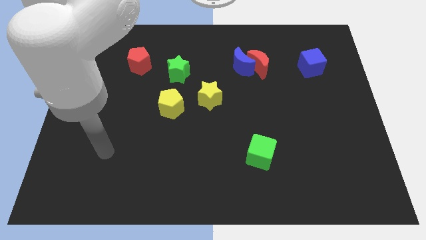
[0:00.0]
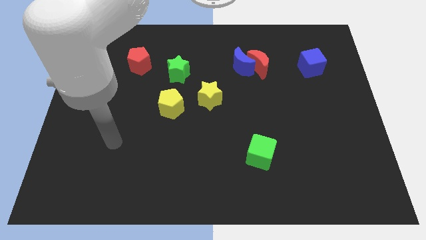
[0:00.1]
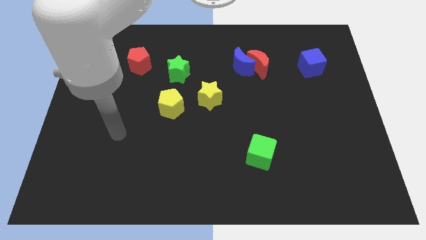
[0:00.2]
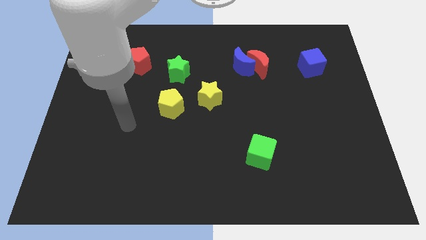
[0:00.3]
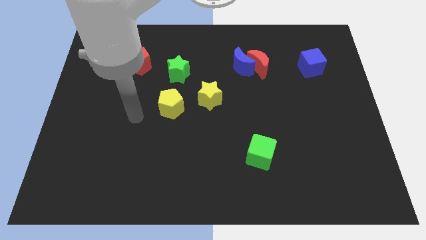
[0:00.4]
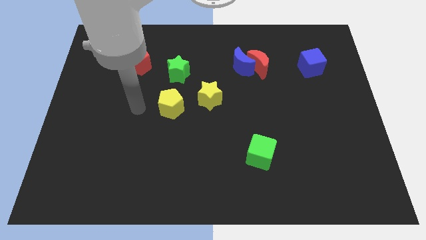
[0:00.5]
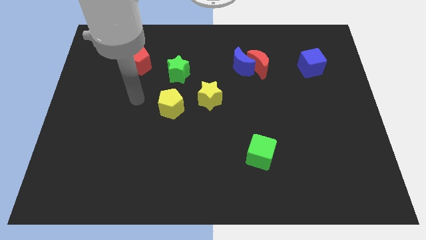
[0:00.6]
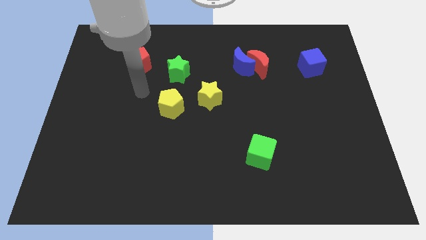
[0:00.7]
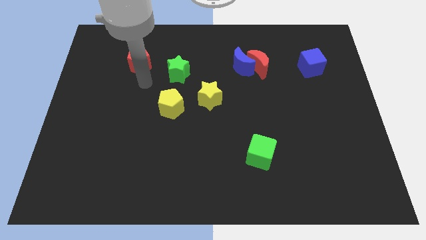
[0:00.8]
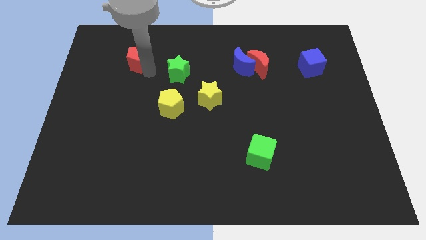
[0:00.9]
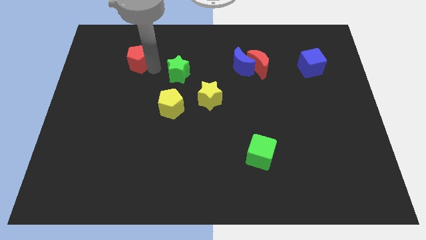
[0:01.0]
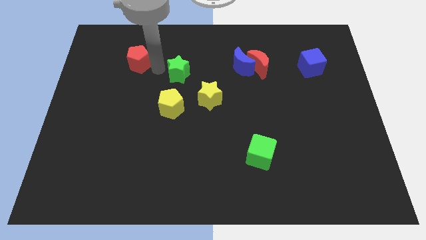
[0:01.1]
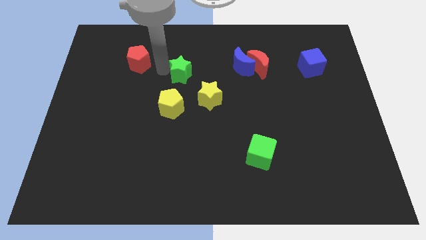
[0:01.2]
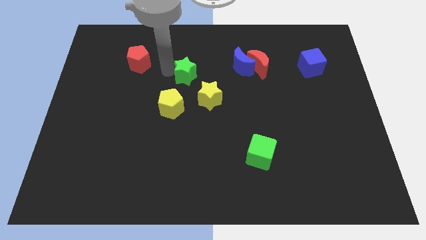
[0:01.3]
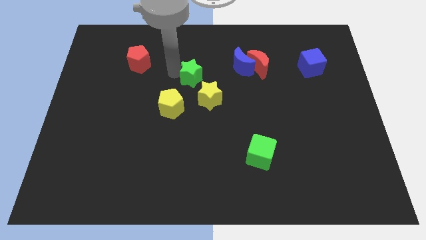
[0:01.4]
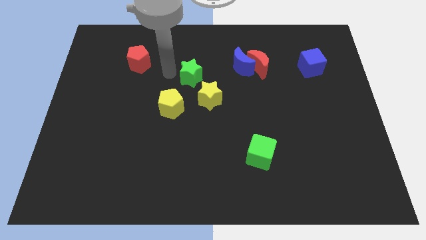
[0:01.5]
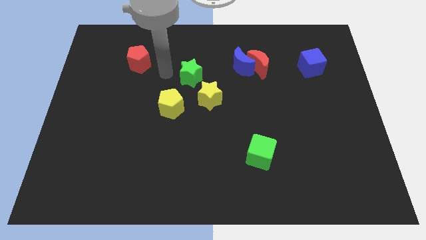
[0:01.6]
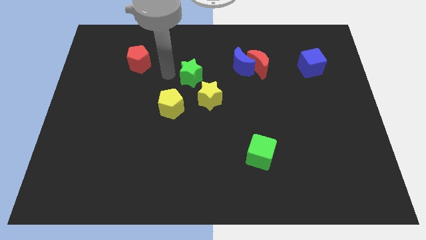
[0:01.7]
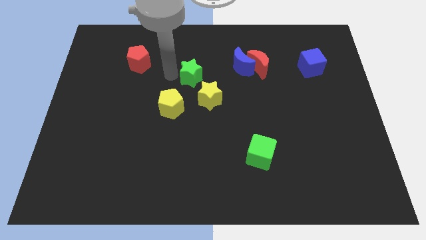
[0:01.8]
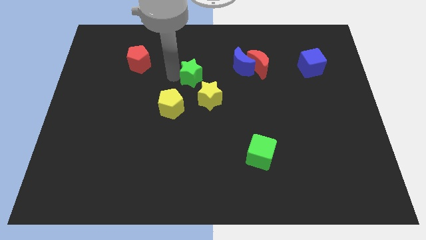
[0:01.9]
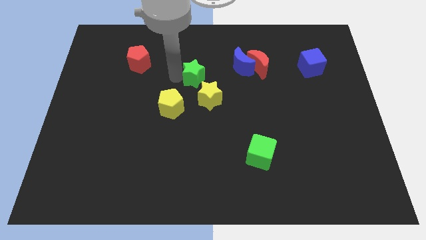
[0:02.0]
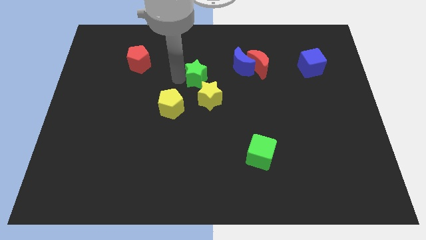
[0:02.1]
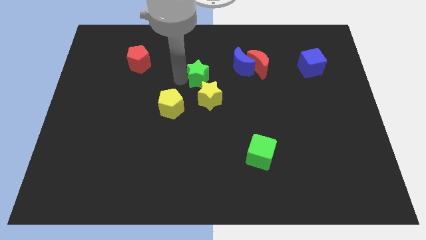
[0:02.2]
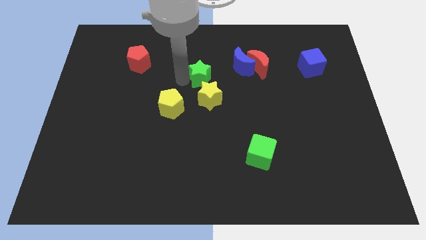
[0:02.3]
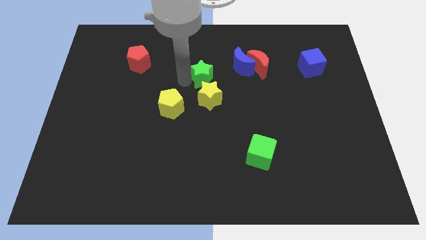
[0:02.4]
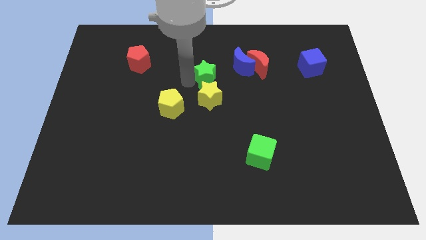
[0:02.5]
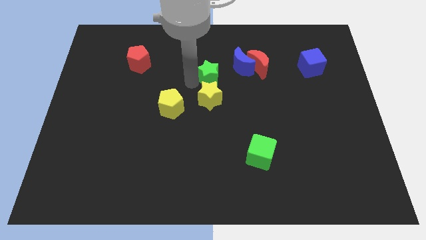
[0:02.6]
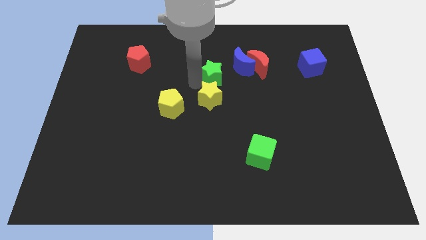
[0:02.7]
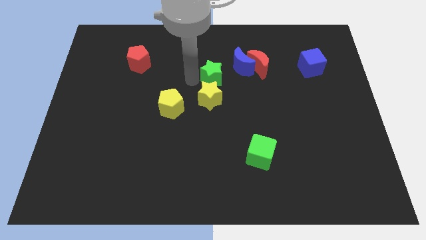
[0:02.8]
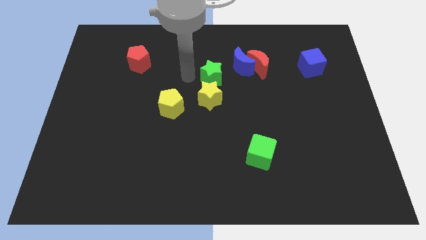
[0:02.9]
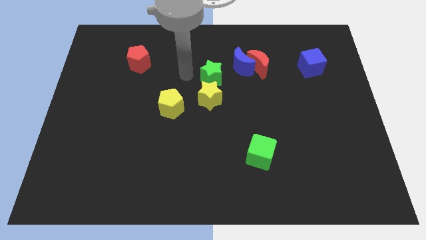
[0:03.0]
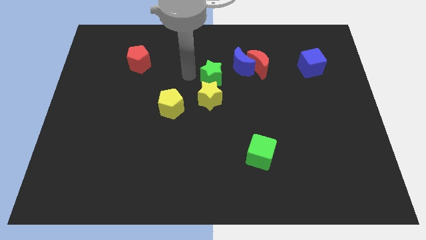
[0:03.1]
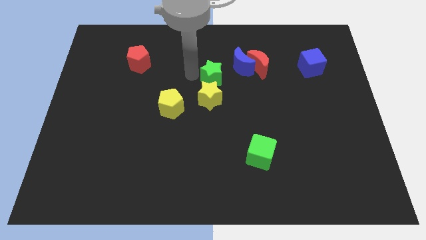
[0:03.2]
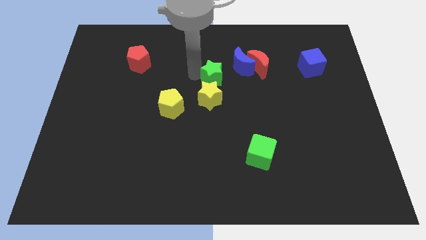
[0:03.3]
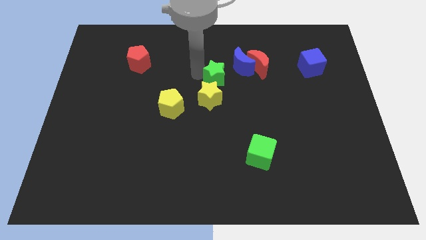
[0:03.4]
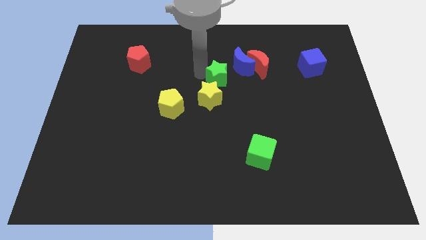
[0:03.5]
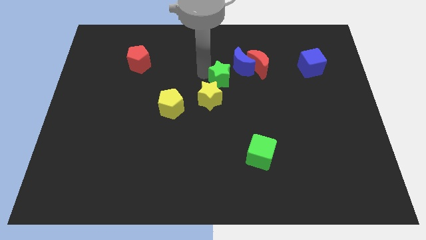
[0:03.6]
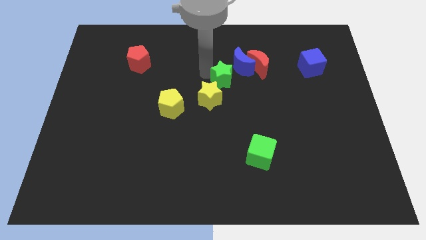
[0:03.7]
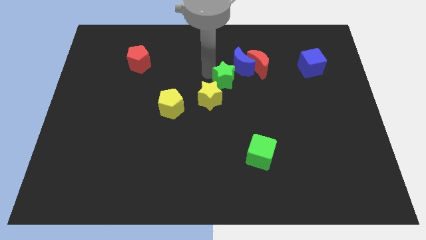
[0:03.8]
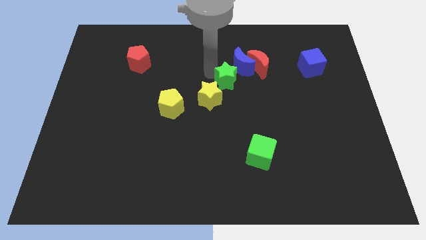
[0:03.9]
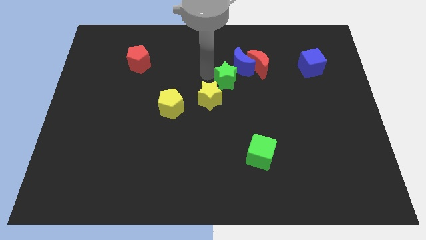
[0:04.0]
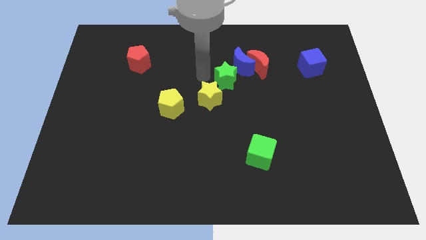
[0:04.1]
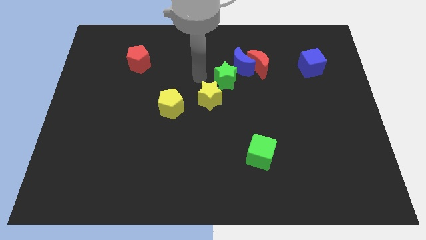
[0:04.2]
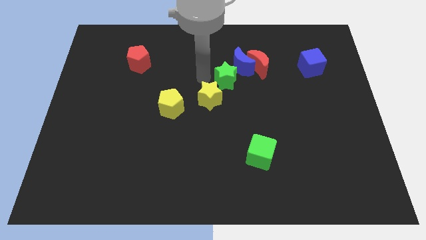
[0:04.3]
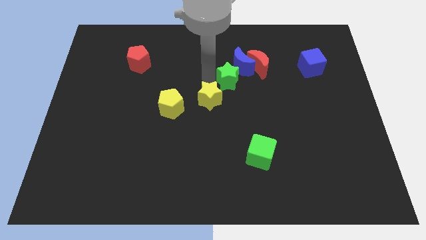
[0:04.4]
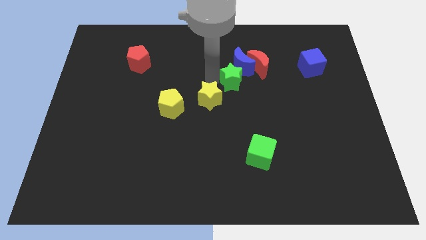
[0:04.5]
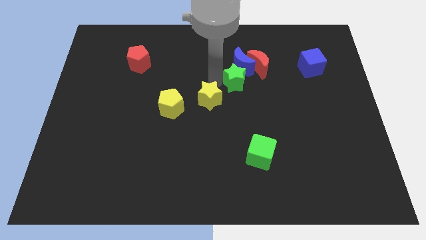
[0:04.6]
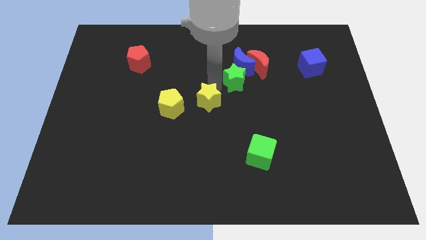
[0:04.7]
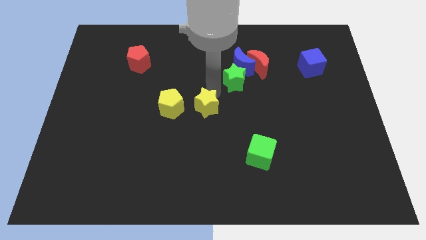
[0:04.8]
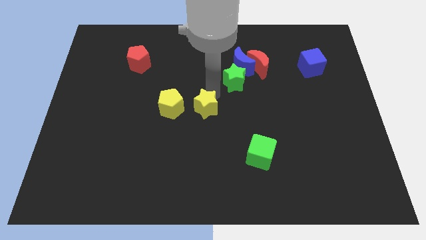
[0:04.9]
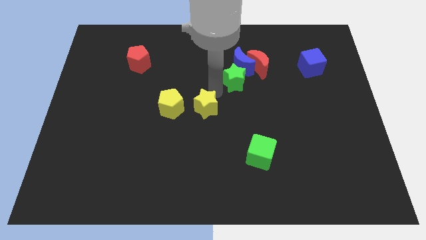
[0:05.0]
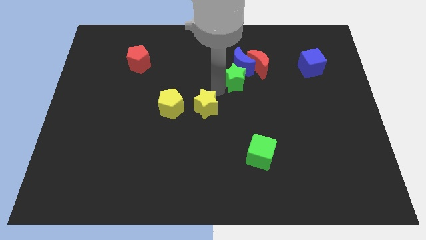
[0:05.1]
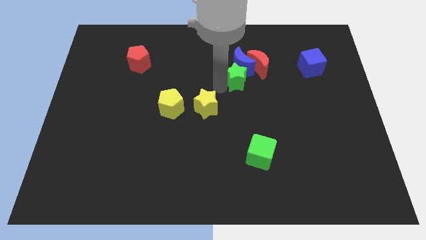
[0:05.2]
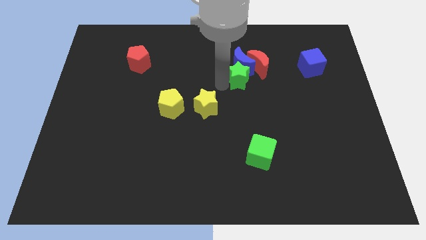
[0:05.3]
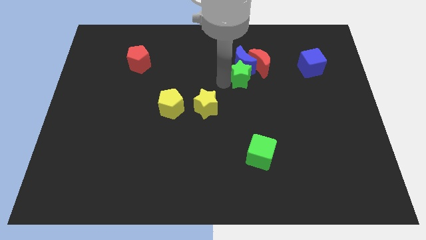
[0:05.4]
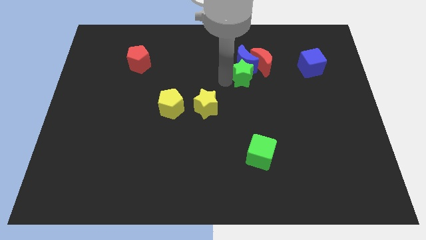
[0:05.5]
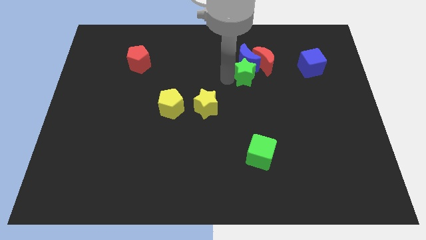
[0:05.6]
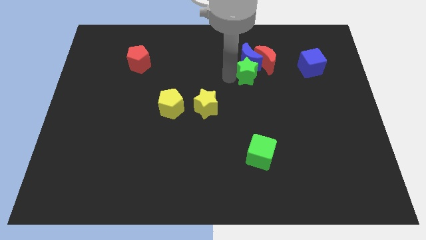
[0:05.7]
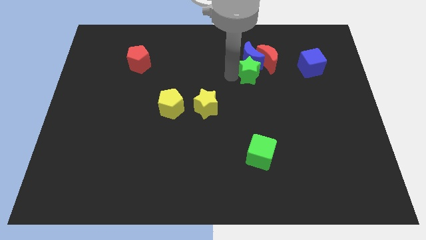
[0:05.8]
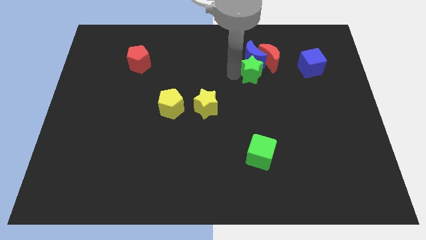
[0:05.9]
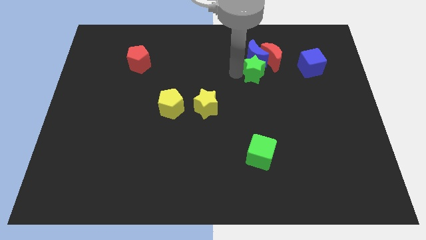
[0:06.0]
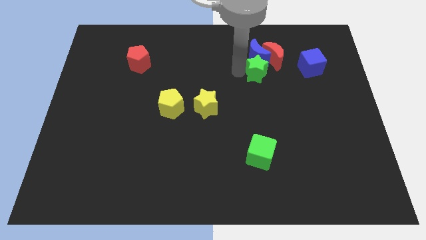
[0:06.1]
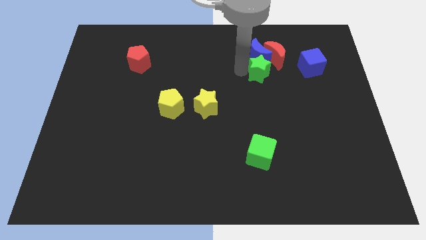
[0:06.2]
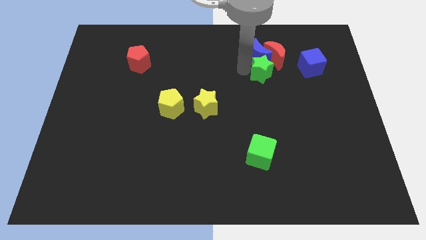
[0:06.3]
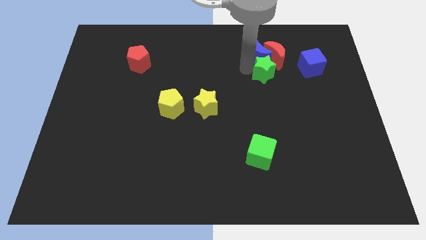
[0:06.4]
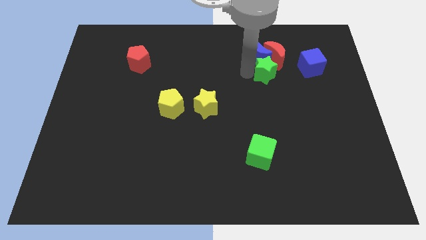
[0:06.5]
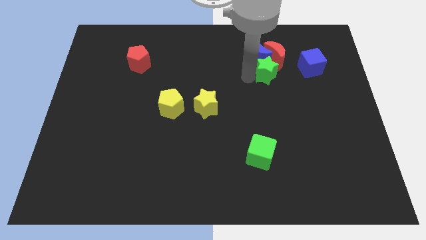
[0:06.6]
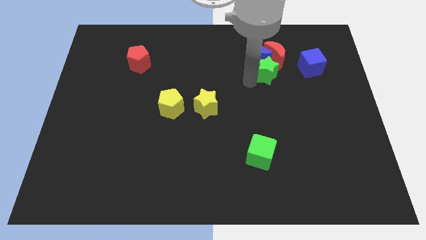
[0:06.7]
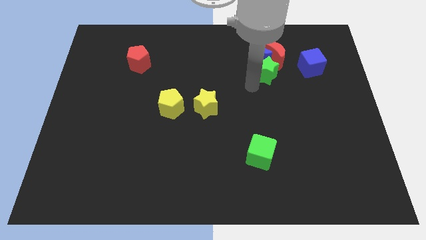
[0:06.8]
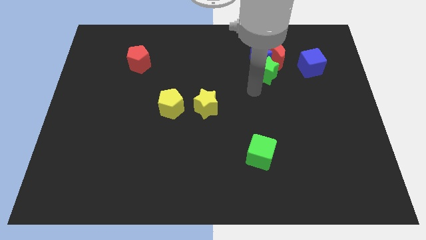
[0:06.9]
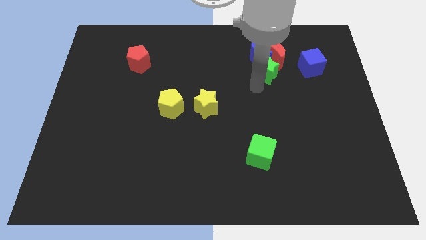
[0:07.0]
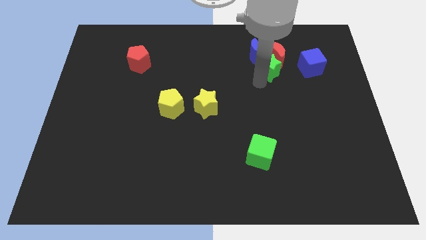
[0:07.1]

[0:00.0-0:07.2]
put the green star to the red moon
